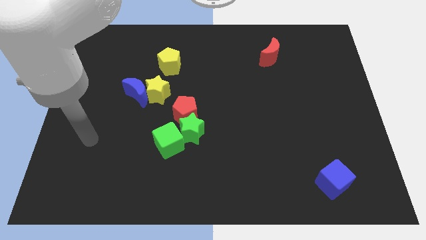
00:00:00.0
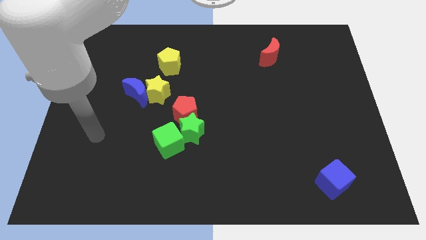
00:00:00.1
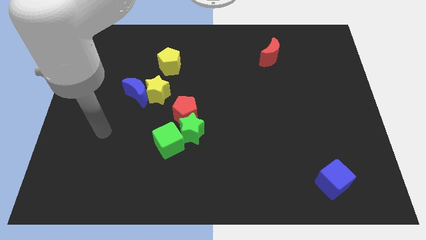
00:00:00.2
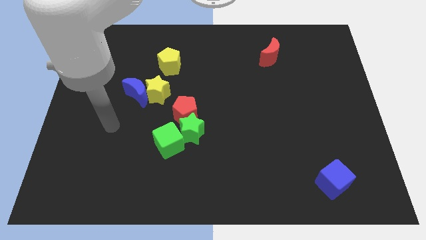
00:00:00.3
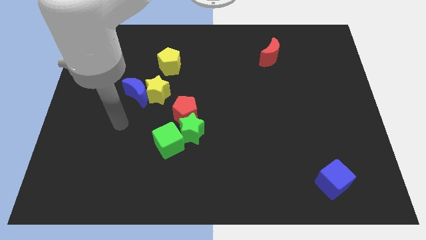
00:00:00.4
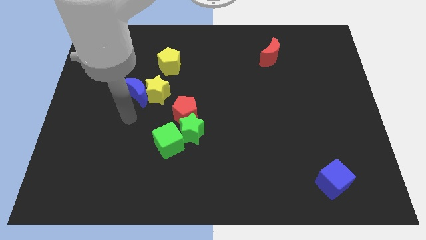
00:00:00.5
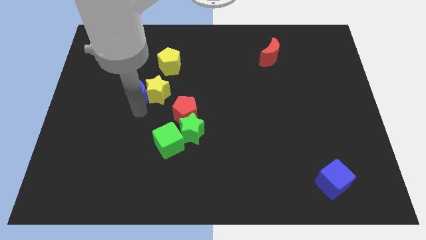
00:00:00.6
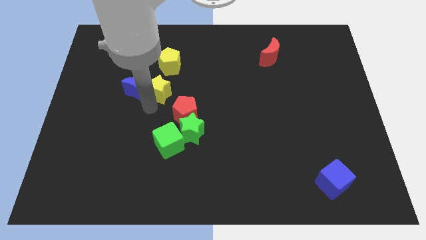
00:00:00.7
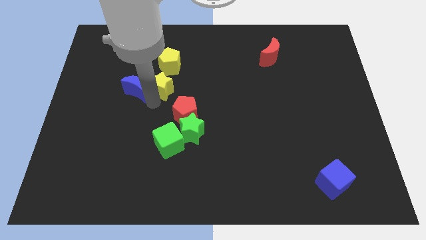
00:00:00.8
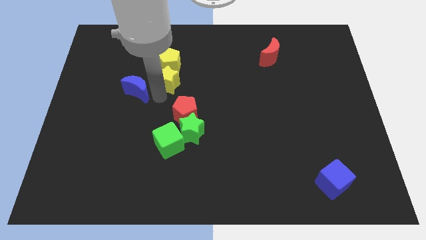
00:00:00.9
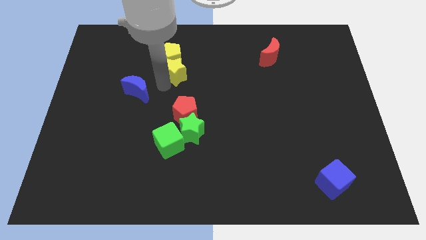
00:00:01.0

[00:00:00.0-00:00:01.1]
pull the blue moon apart from the yellow star

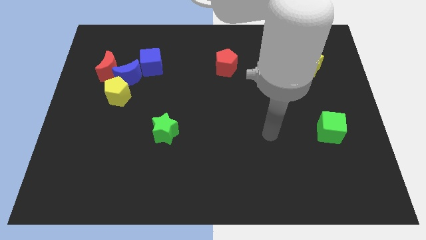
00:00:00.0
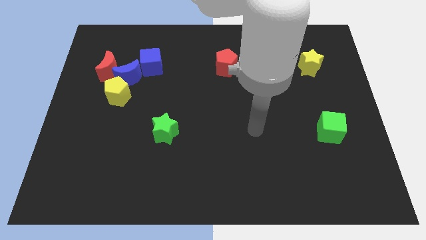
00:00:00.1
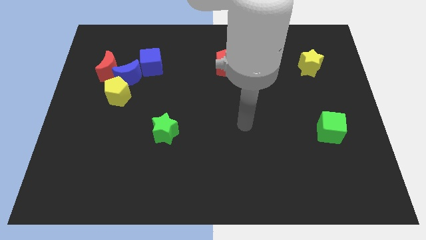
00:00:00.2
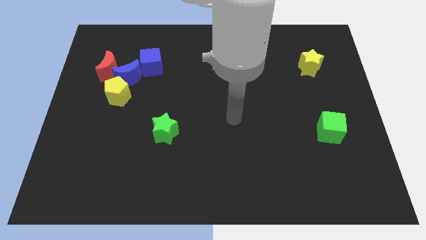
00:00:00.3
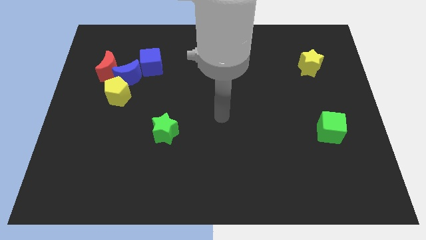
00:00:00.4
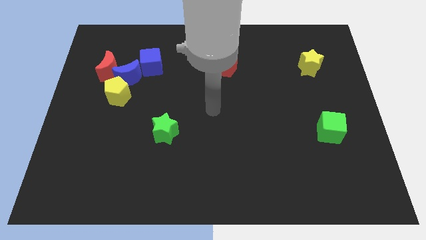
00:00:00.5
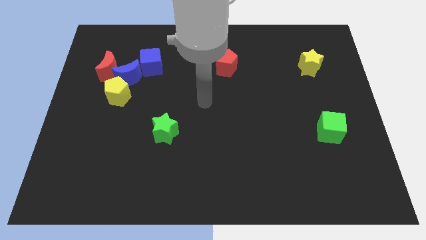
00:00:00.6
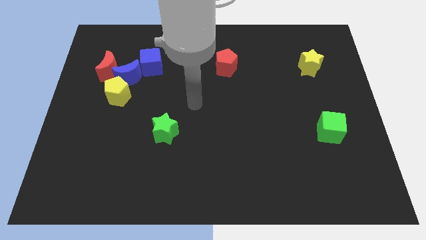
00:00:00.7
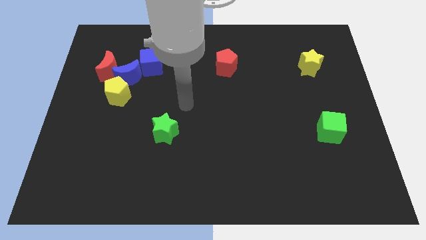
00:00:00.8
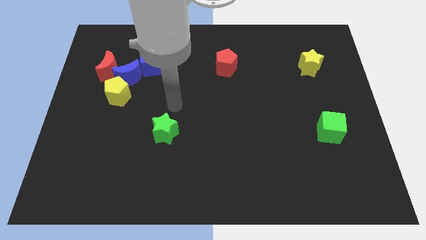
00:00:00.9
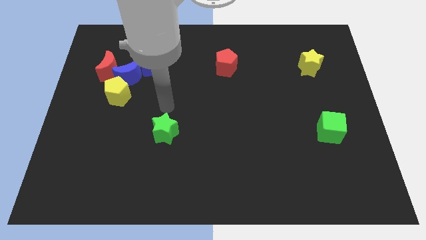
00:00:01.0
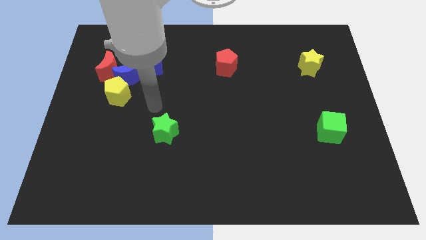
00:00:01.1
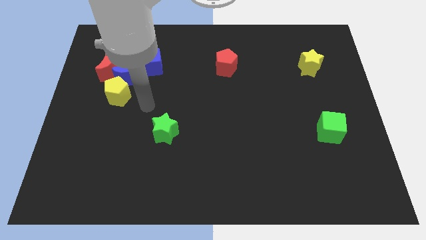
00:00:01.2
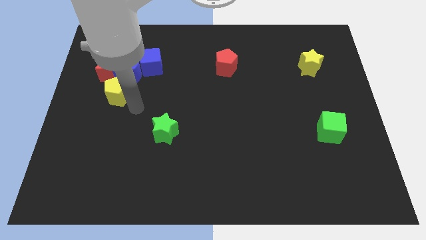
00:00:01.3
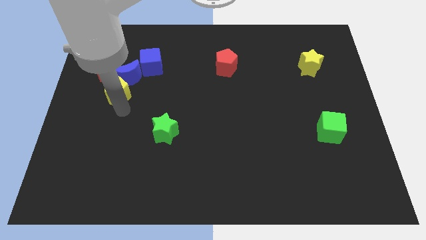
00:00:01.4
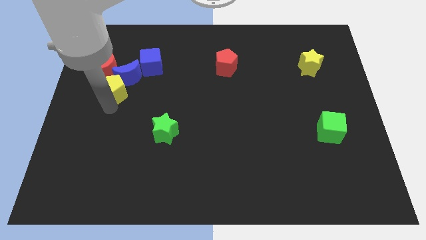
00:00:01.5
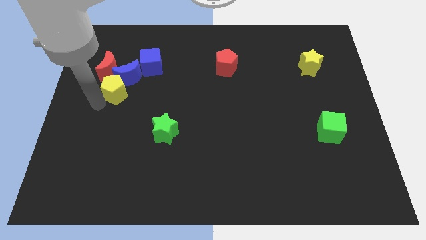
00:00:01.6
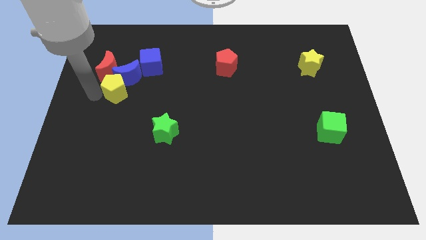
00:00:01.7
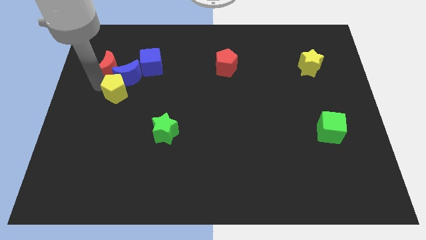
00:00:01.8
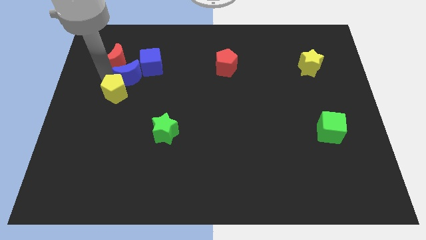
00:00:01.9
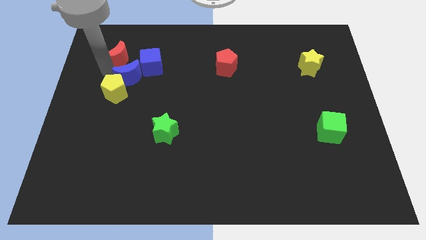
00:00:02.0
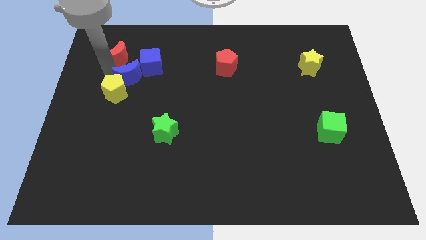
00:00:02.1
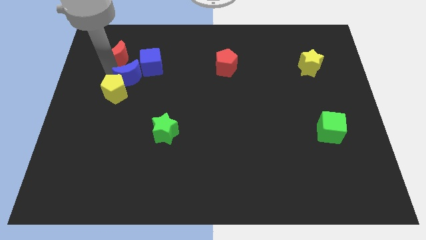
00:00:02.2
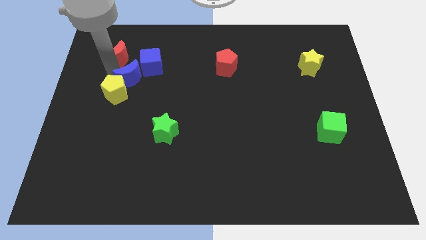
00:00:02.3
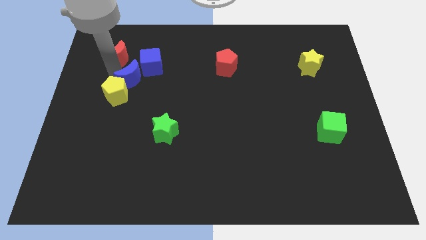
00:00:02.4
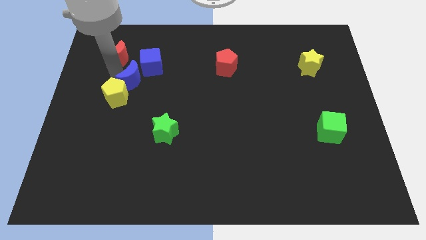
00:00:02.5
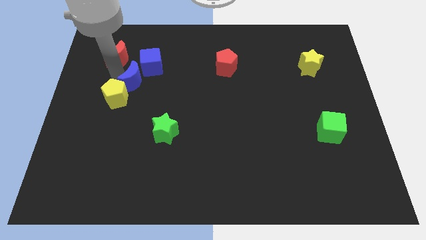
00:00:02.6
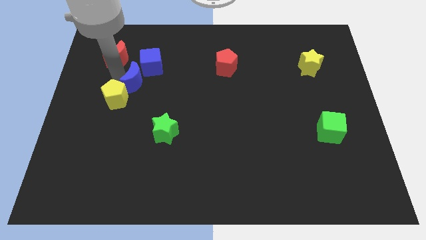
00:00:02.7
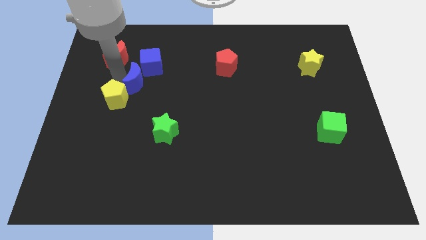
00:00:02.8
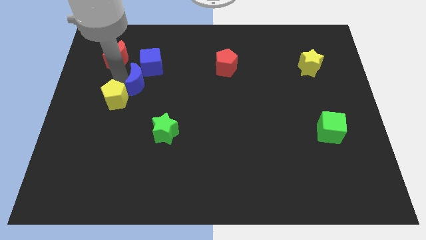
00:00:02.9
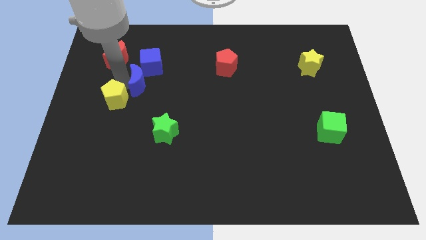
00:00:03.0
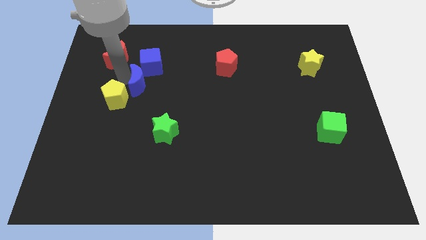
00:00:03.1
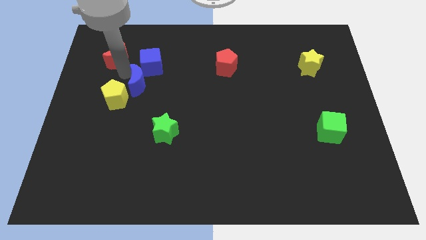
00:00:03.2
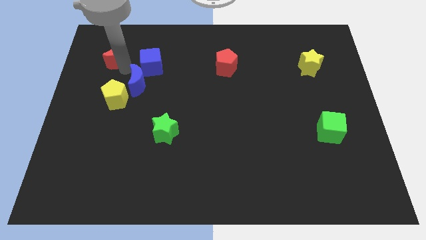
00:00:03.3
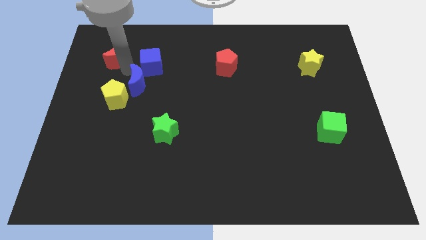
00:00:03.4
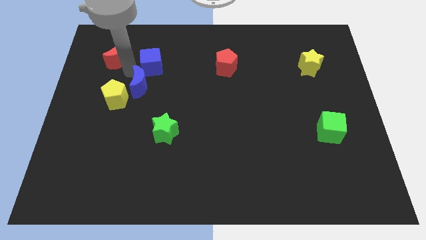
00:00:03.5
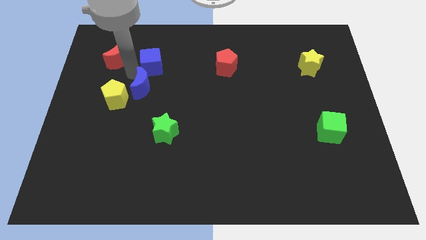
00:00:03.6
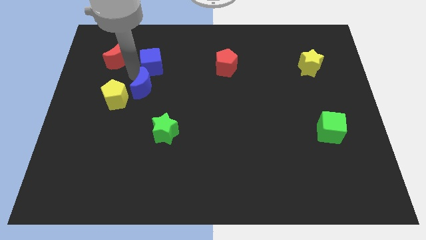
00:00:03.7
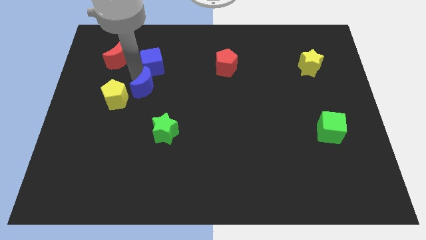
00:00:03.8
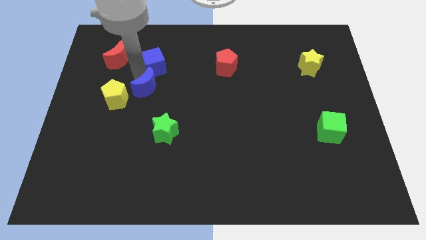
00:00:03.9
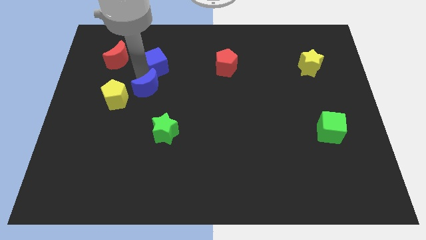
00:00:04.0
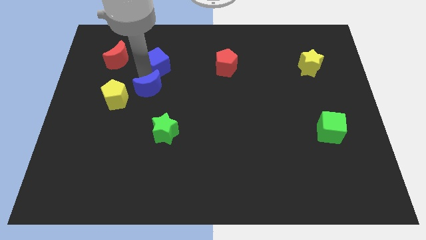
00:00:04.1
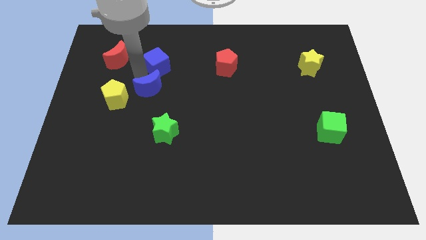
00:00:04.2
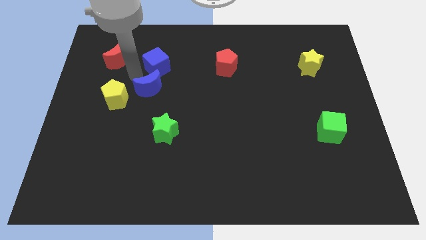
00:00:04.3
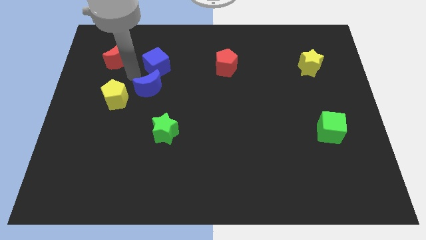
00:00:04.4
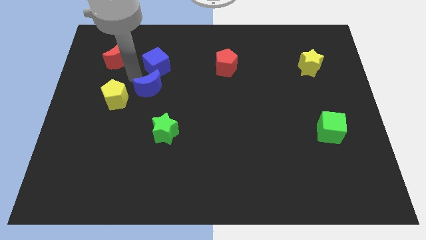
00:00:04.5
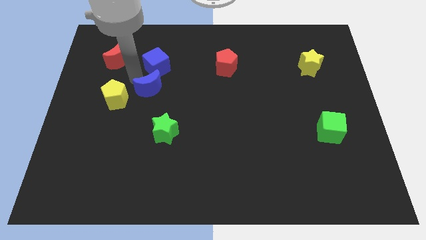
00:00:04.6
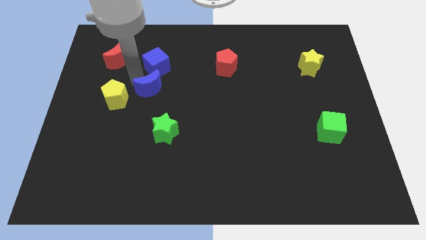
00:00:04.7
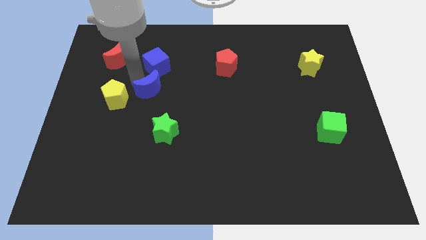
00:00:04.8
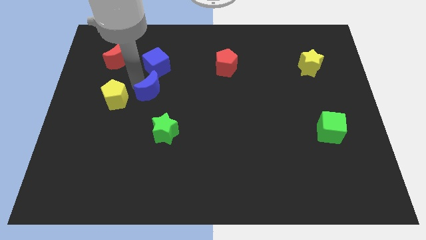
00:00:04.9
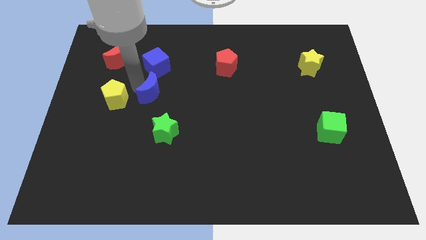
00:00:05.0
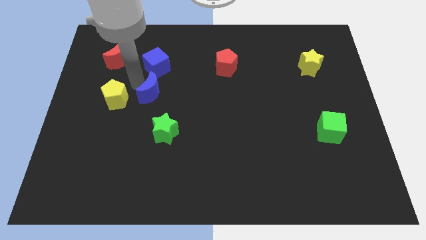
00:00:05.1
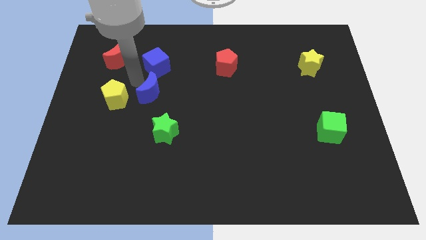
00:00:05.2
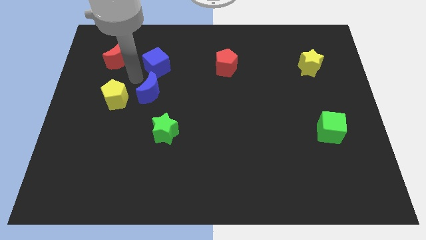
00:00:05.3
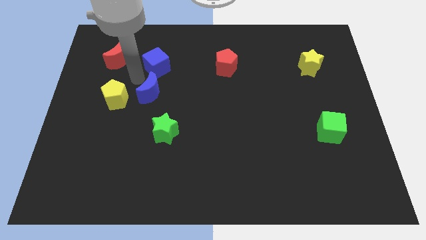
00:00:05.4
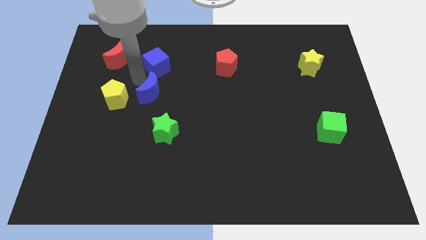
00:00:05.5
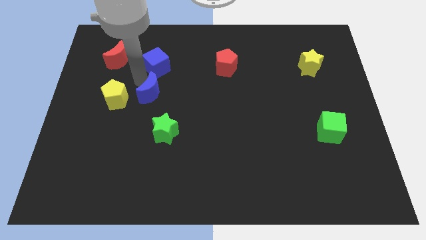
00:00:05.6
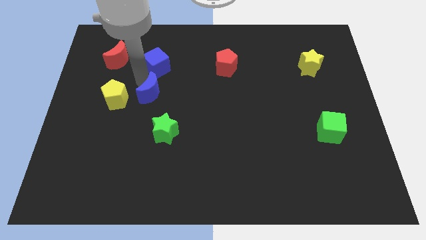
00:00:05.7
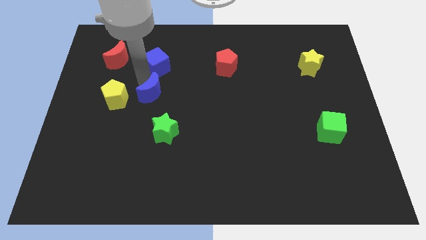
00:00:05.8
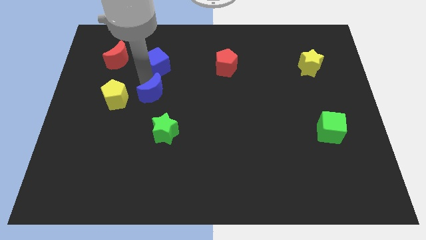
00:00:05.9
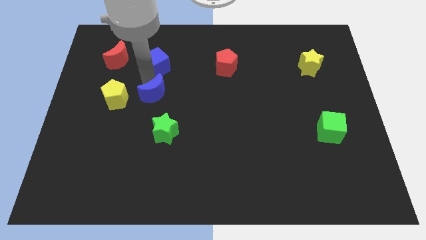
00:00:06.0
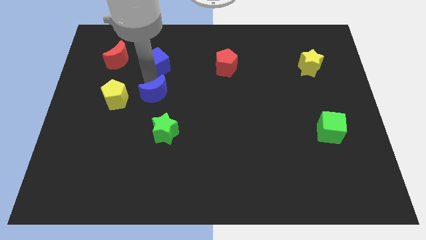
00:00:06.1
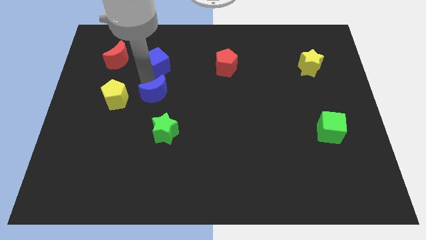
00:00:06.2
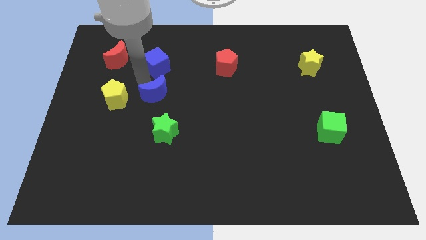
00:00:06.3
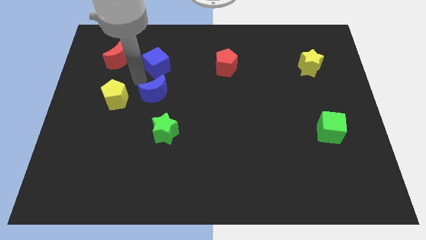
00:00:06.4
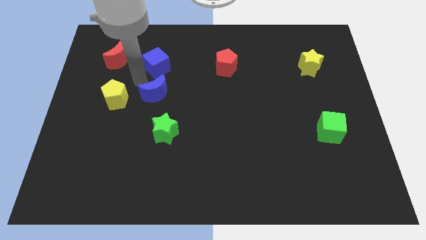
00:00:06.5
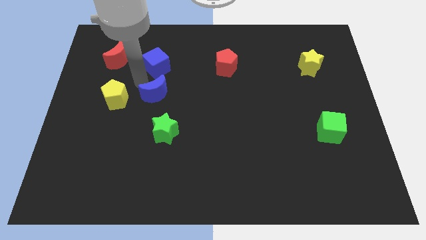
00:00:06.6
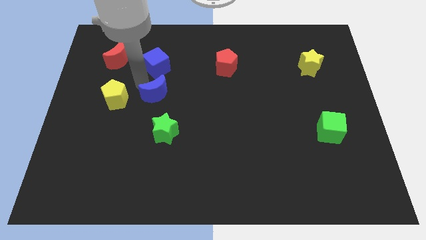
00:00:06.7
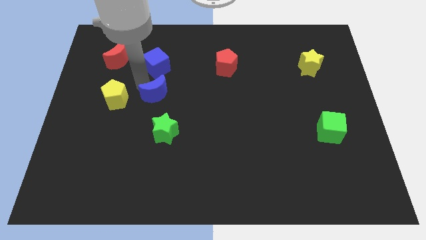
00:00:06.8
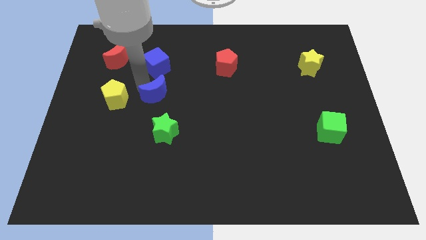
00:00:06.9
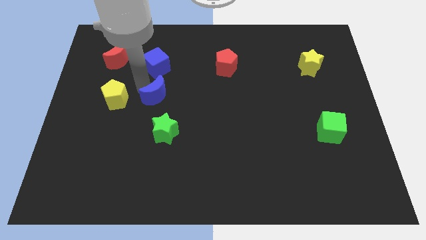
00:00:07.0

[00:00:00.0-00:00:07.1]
separate the blue moon from the clump

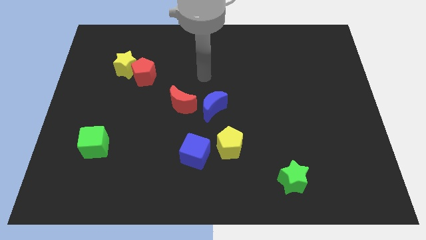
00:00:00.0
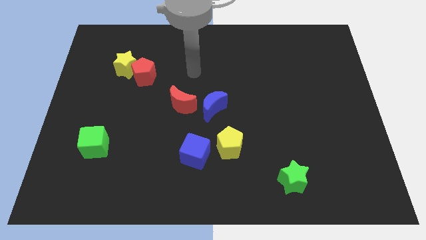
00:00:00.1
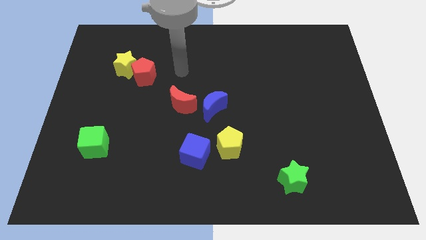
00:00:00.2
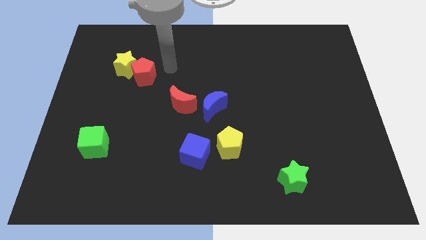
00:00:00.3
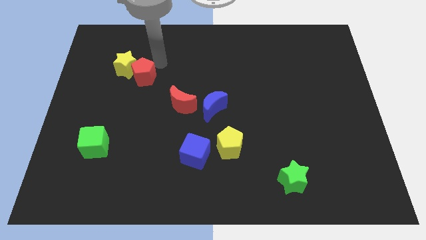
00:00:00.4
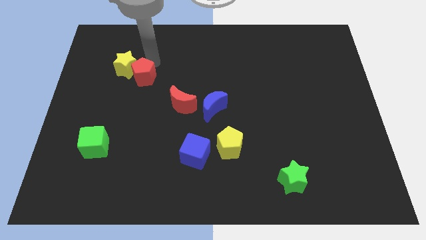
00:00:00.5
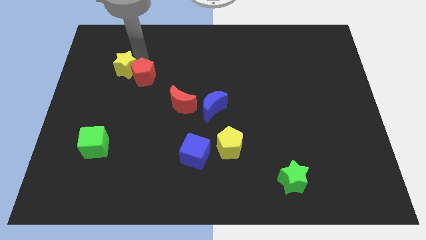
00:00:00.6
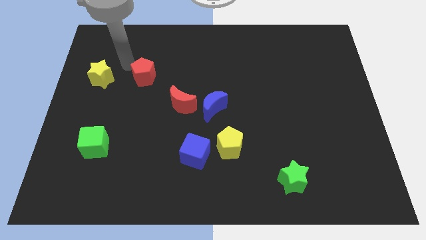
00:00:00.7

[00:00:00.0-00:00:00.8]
move the red pentagon away from the yellow star

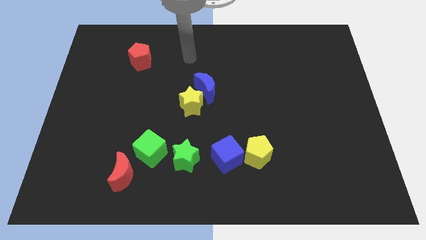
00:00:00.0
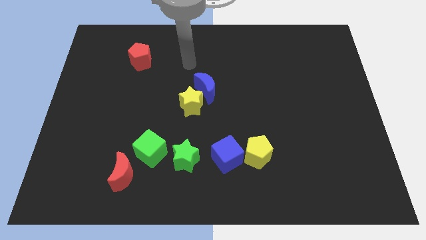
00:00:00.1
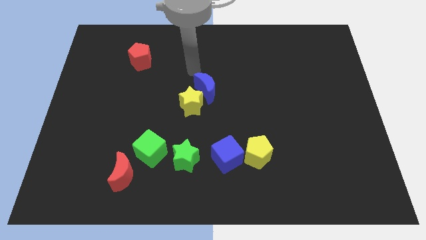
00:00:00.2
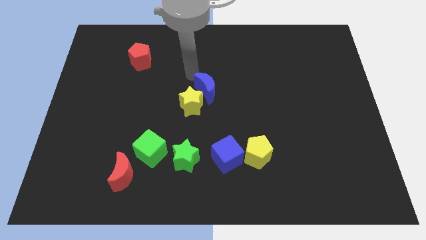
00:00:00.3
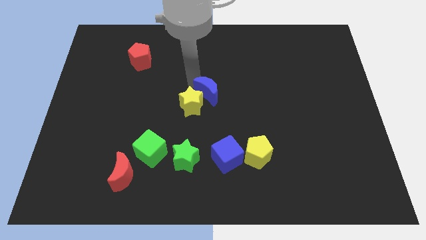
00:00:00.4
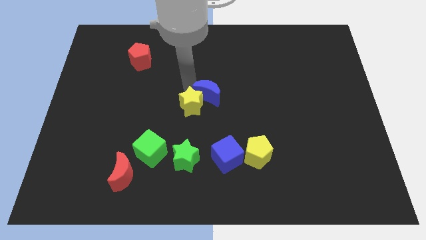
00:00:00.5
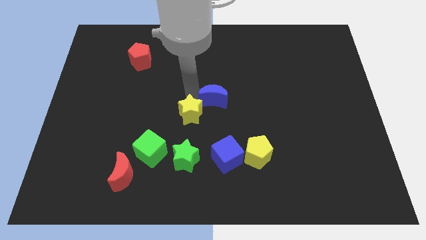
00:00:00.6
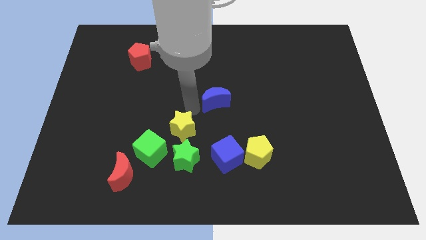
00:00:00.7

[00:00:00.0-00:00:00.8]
separate the blue moon from the yellow star
